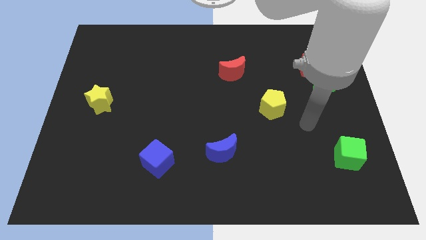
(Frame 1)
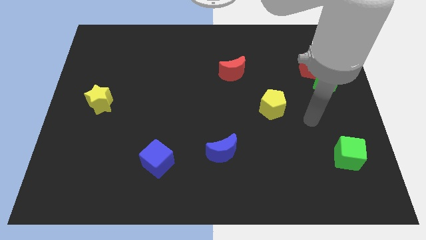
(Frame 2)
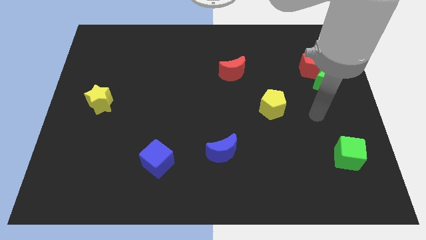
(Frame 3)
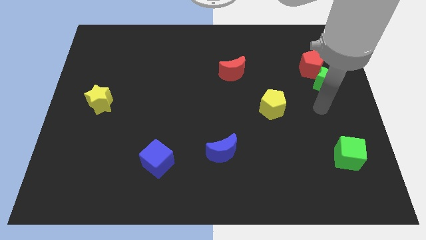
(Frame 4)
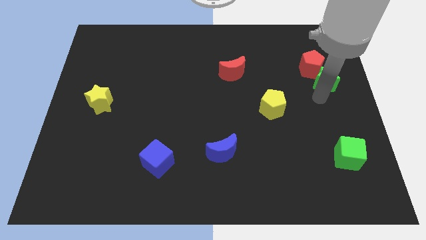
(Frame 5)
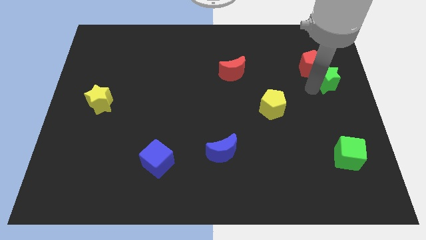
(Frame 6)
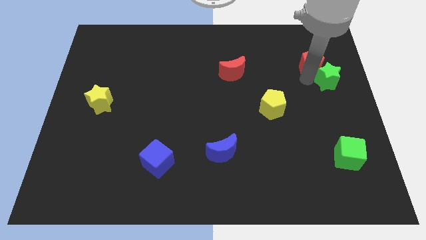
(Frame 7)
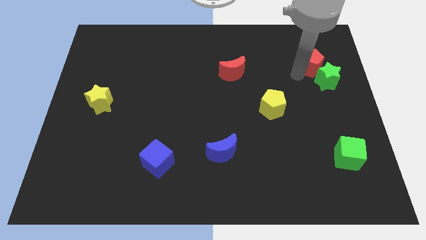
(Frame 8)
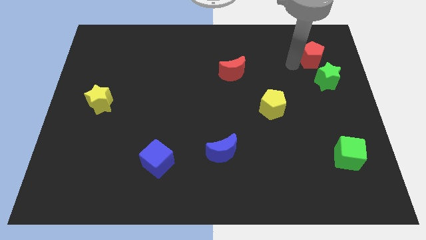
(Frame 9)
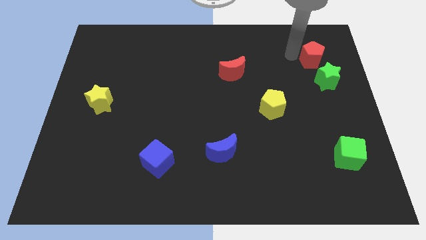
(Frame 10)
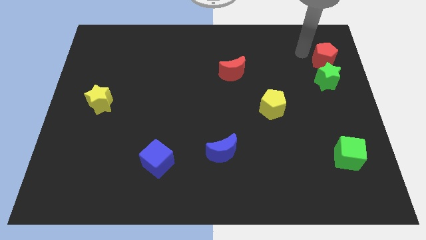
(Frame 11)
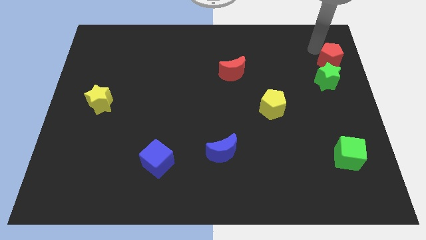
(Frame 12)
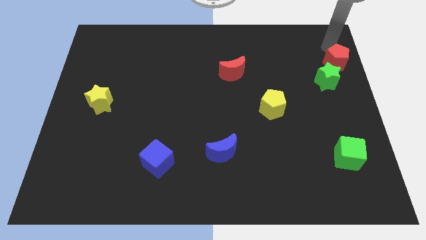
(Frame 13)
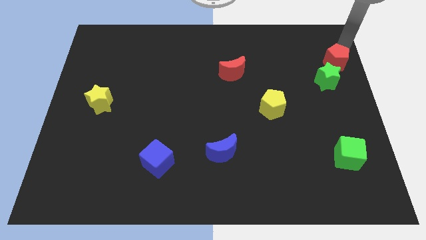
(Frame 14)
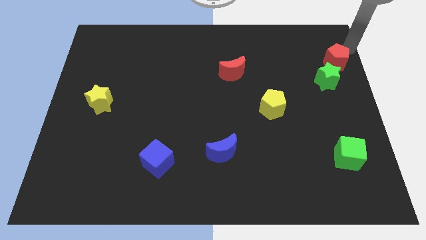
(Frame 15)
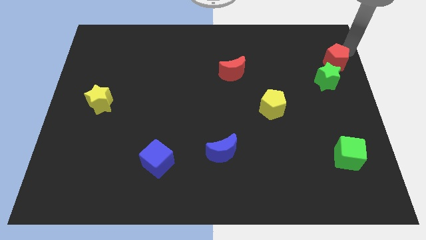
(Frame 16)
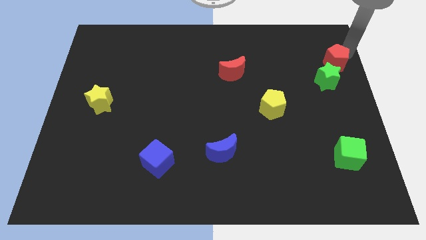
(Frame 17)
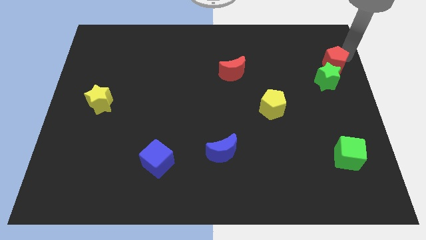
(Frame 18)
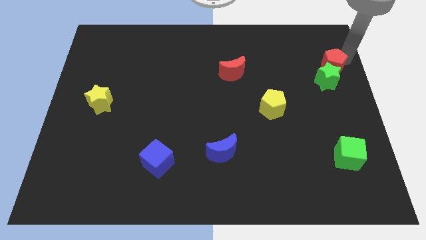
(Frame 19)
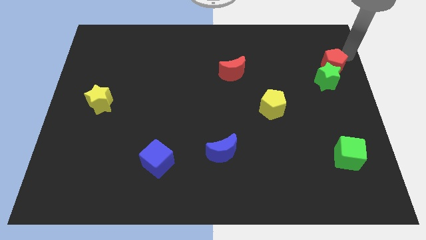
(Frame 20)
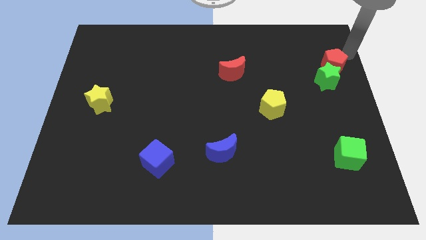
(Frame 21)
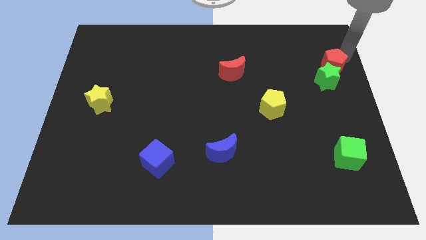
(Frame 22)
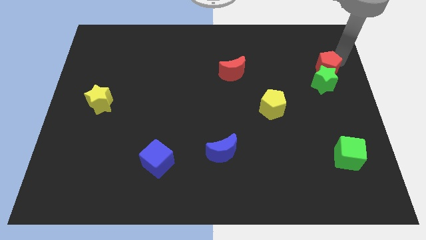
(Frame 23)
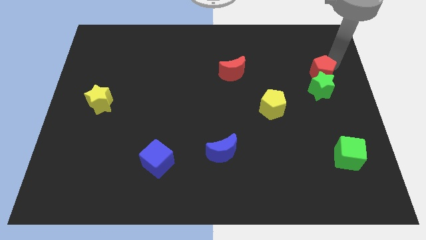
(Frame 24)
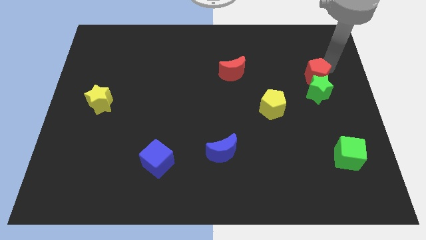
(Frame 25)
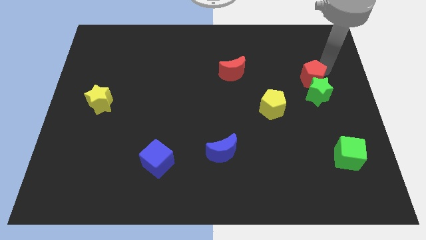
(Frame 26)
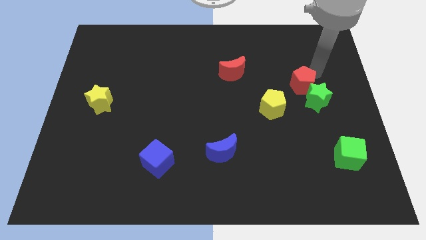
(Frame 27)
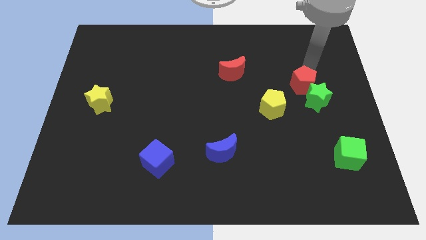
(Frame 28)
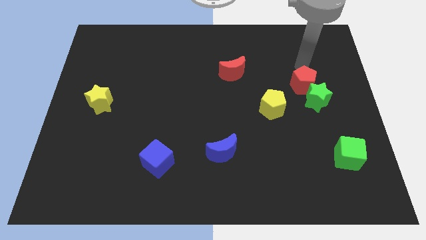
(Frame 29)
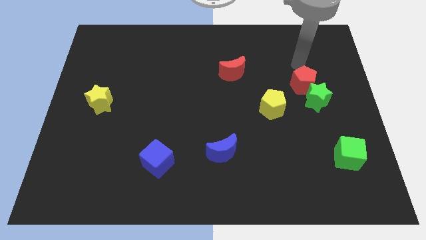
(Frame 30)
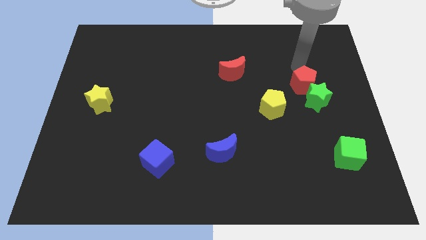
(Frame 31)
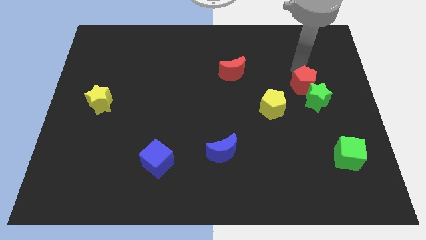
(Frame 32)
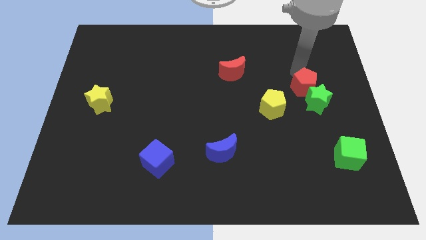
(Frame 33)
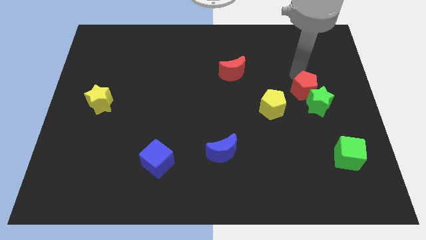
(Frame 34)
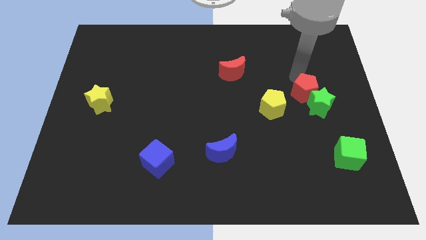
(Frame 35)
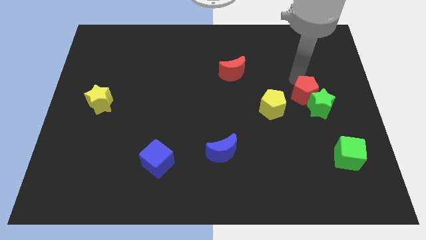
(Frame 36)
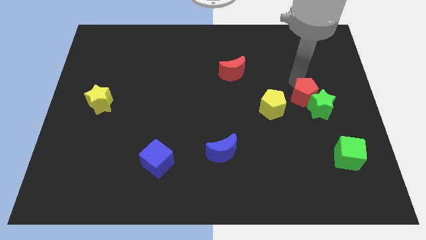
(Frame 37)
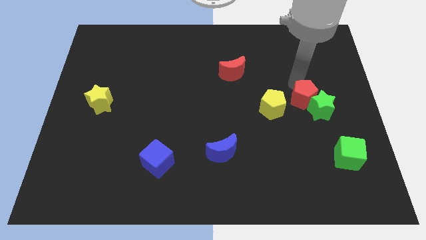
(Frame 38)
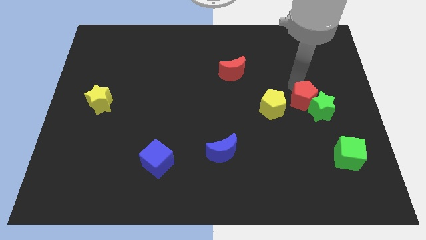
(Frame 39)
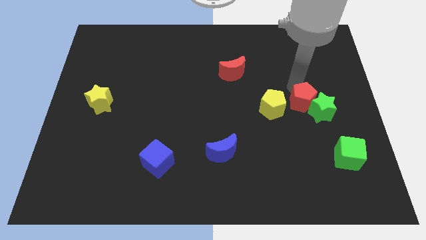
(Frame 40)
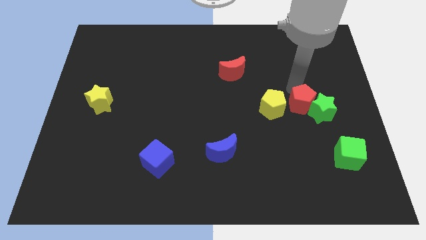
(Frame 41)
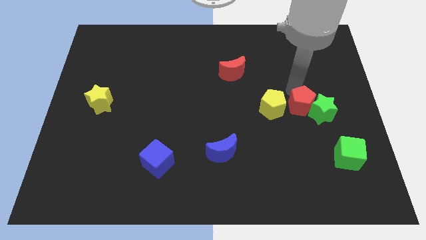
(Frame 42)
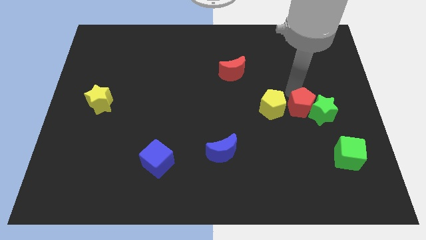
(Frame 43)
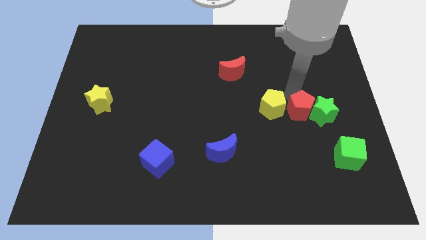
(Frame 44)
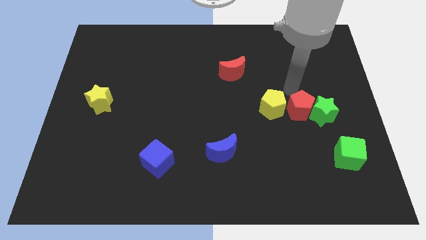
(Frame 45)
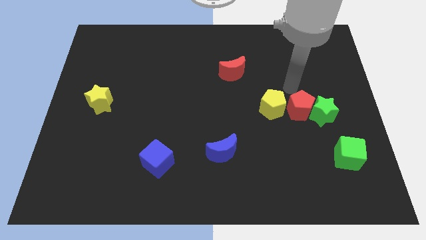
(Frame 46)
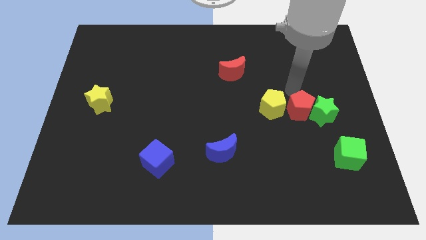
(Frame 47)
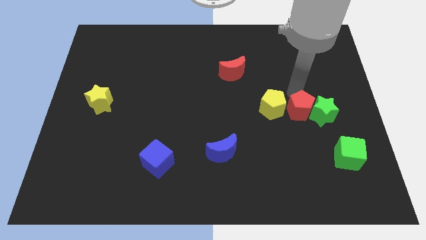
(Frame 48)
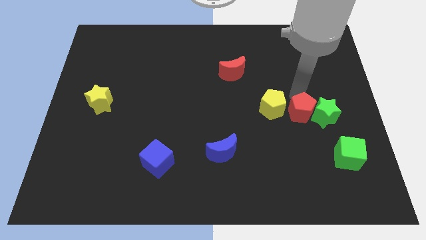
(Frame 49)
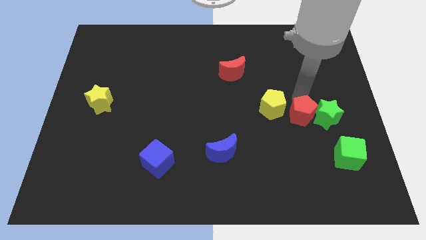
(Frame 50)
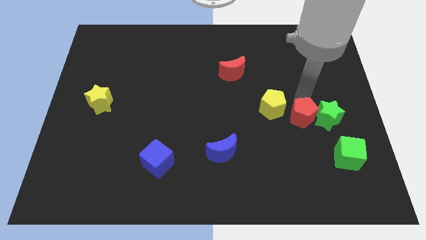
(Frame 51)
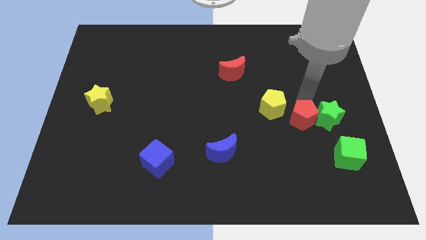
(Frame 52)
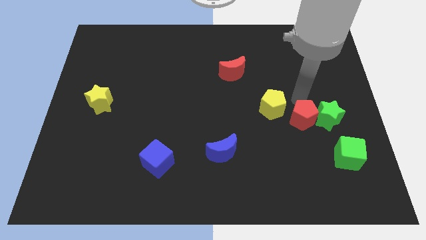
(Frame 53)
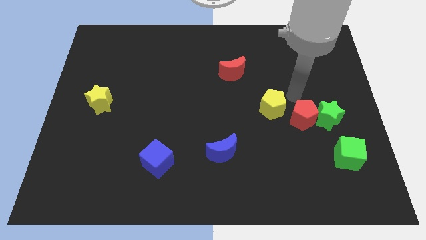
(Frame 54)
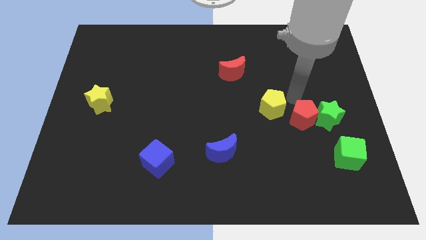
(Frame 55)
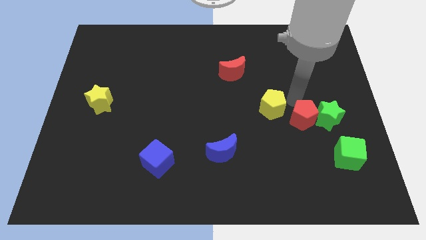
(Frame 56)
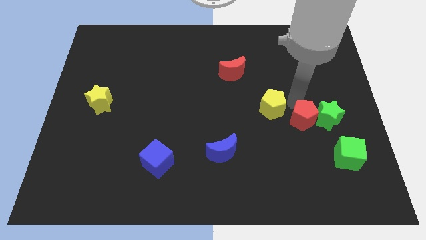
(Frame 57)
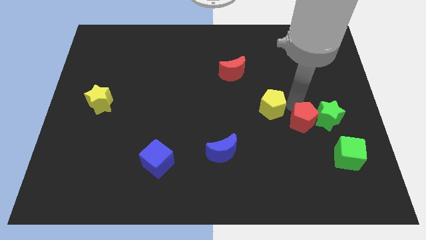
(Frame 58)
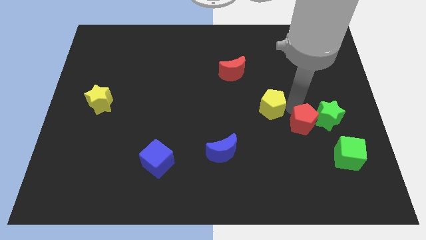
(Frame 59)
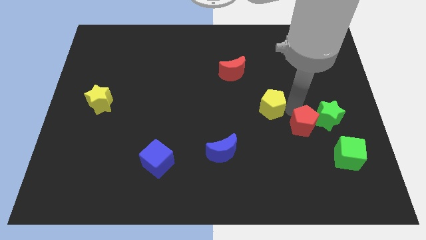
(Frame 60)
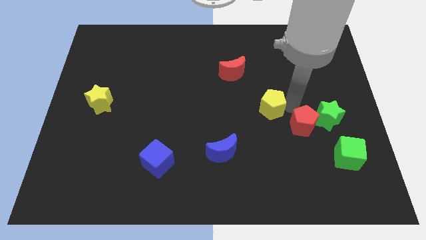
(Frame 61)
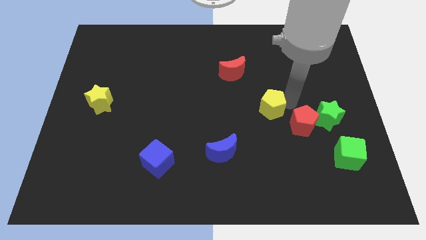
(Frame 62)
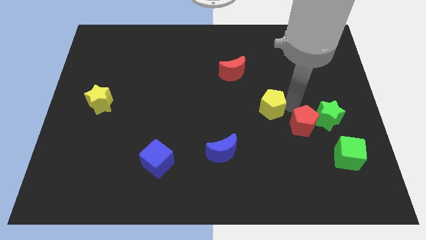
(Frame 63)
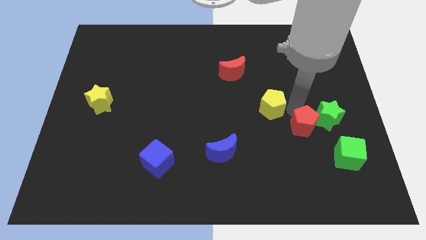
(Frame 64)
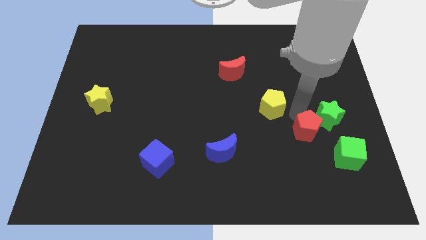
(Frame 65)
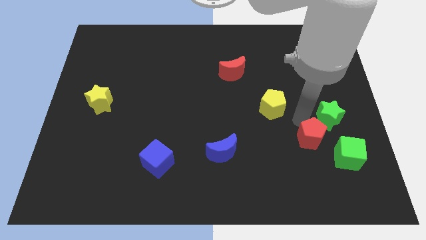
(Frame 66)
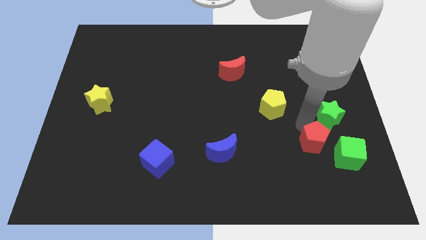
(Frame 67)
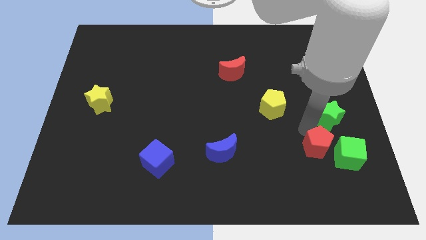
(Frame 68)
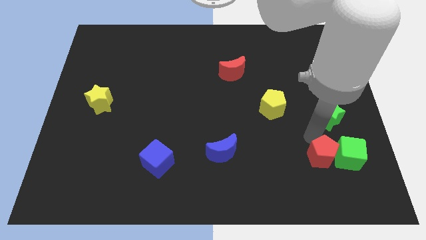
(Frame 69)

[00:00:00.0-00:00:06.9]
push the red pentagon to the bottom left side of the green cube
